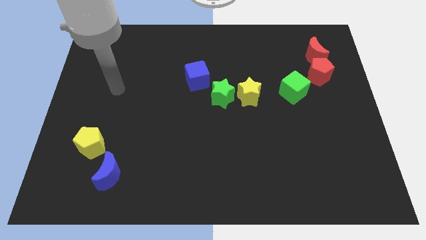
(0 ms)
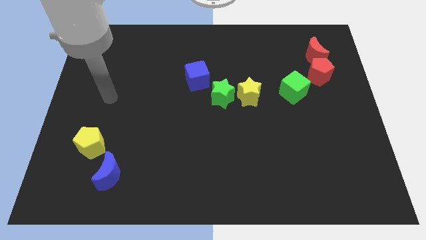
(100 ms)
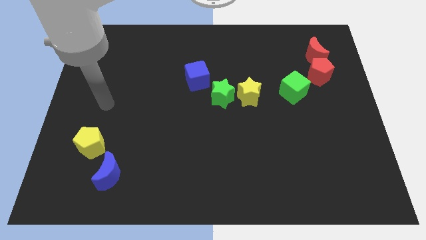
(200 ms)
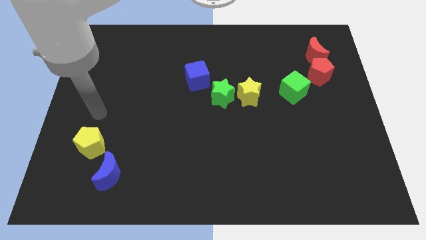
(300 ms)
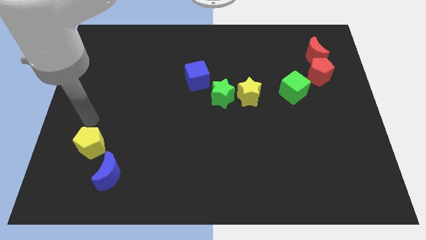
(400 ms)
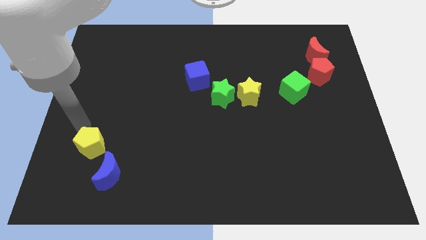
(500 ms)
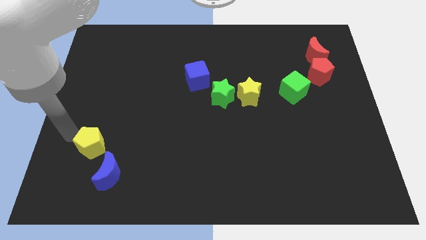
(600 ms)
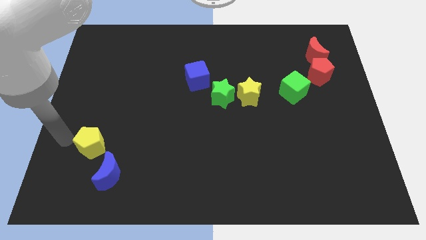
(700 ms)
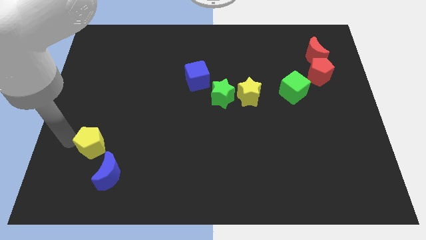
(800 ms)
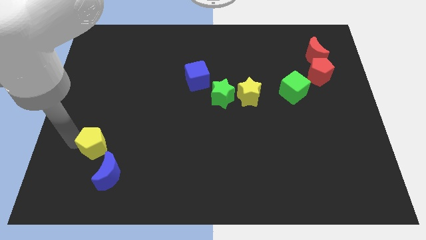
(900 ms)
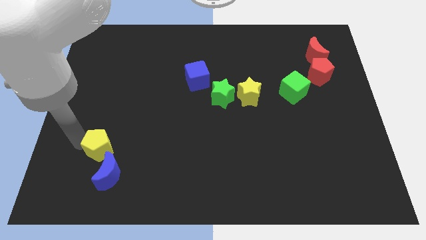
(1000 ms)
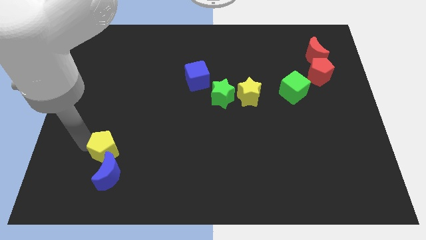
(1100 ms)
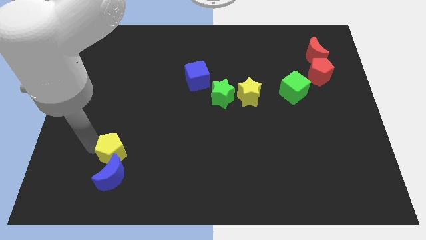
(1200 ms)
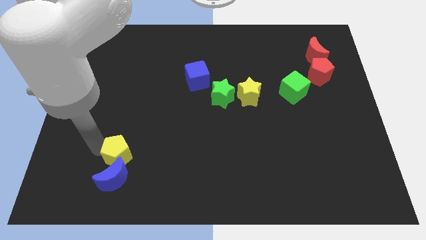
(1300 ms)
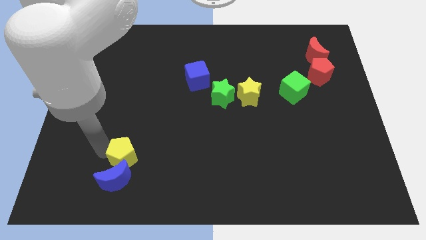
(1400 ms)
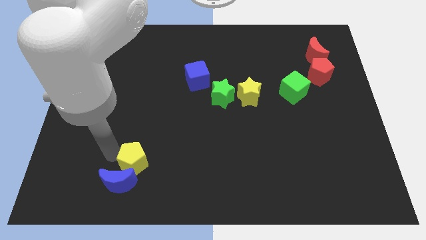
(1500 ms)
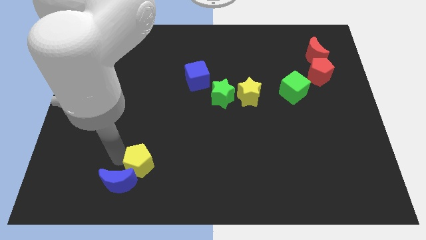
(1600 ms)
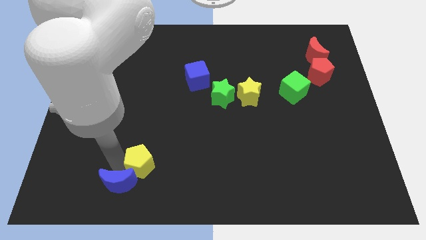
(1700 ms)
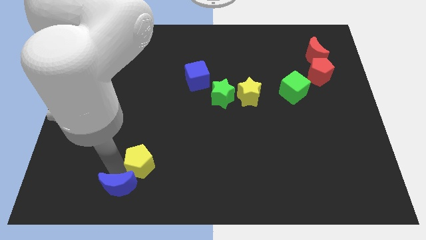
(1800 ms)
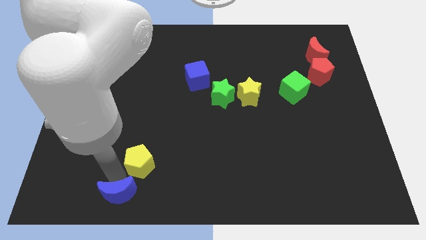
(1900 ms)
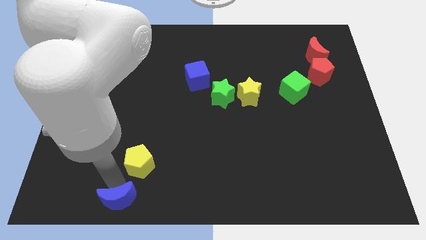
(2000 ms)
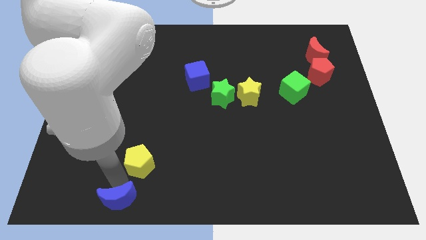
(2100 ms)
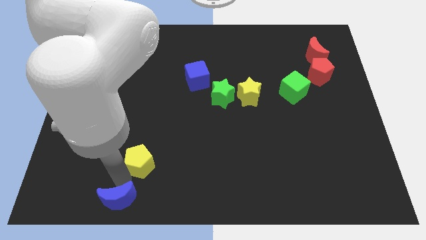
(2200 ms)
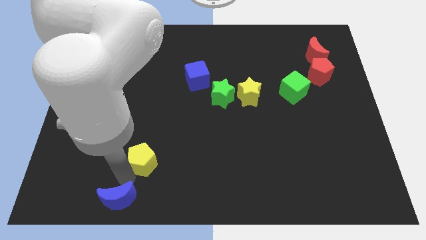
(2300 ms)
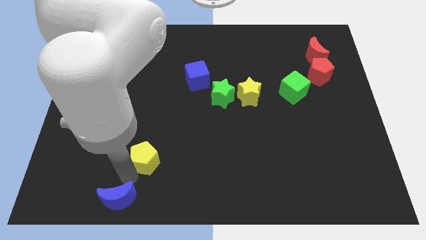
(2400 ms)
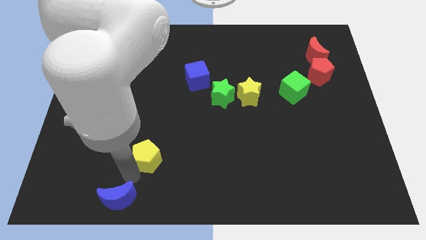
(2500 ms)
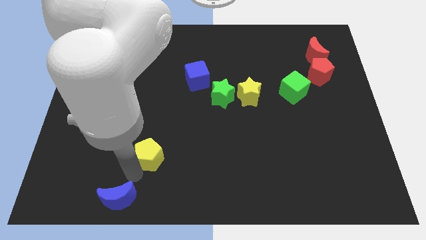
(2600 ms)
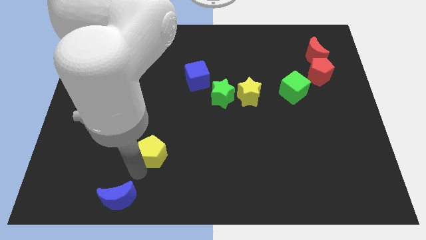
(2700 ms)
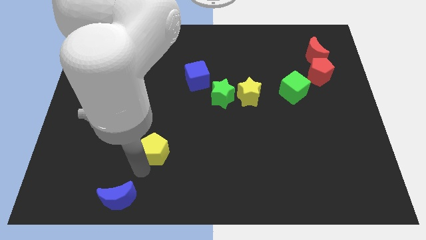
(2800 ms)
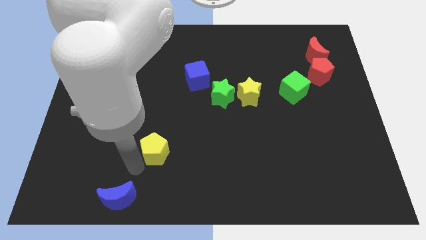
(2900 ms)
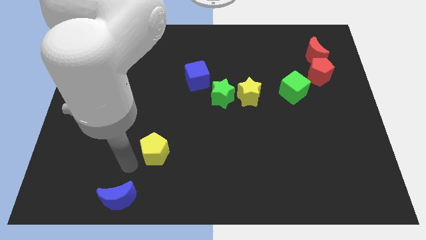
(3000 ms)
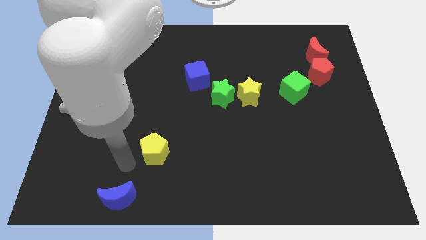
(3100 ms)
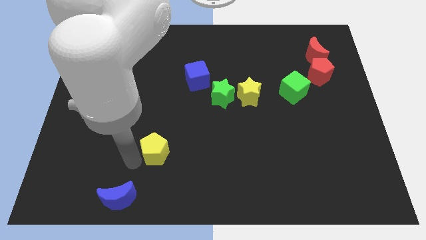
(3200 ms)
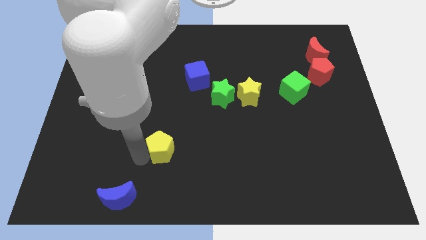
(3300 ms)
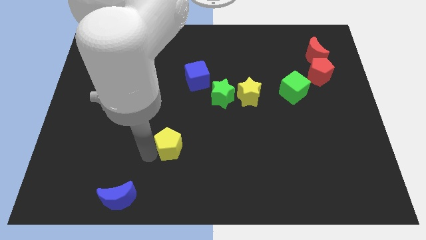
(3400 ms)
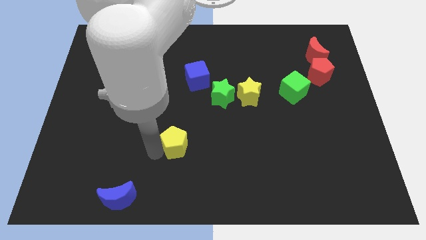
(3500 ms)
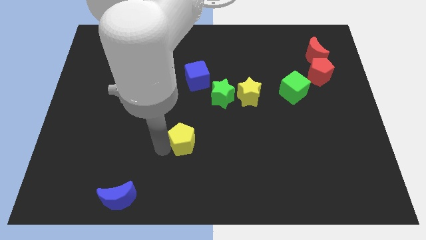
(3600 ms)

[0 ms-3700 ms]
move the yellow pentagon to the right

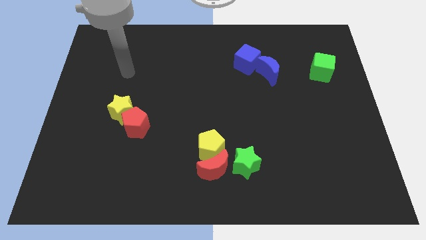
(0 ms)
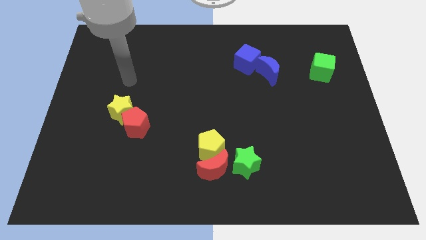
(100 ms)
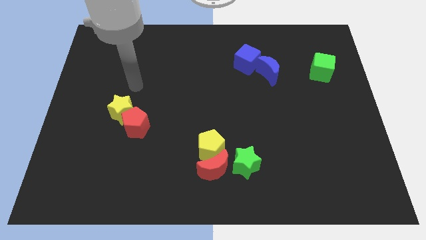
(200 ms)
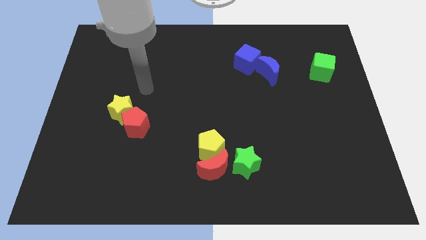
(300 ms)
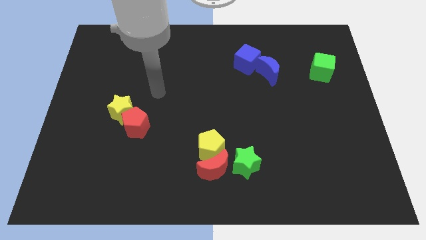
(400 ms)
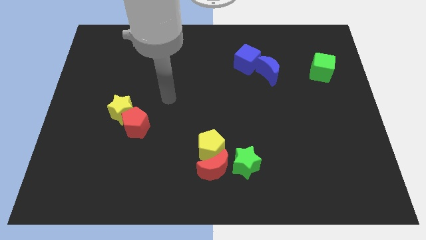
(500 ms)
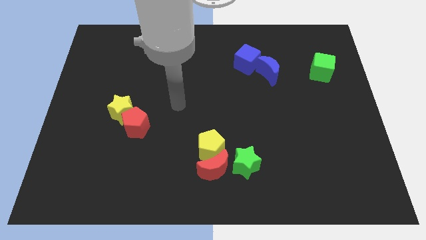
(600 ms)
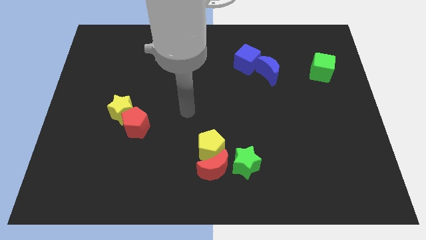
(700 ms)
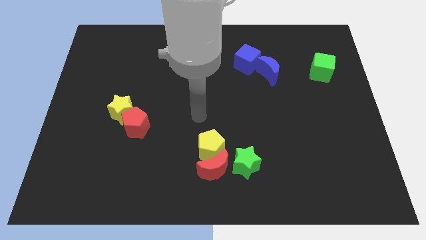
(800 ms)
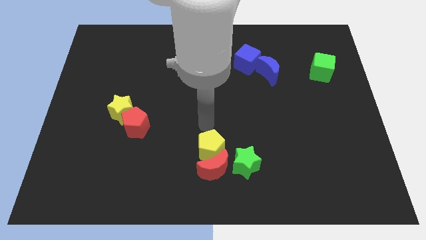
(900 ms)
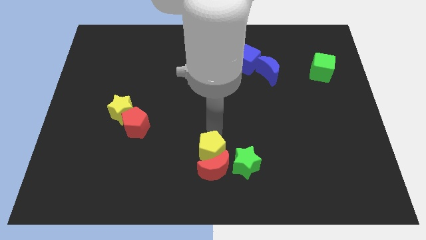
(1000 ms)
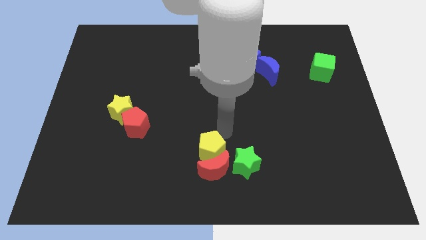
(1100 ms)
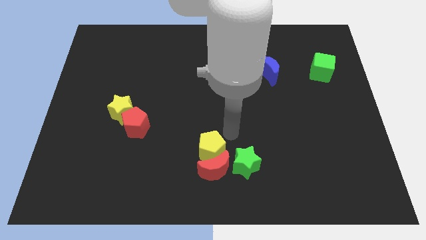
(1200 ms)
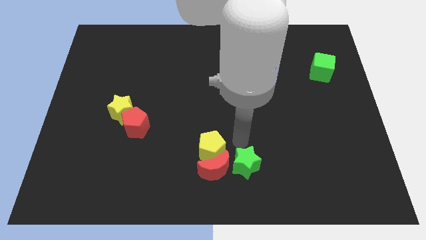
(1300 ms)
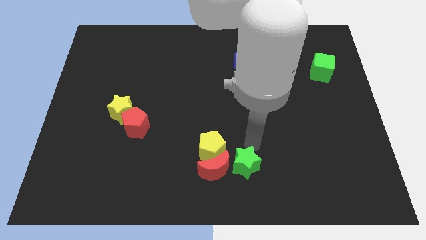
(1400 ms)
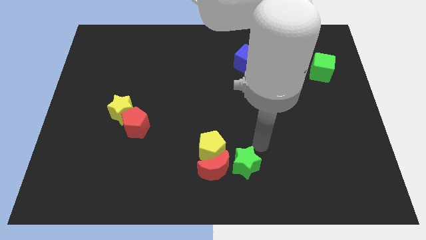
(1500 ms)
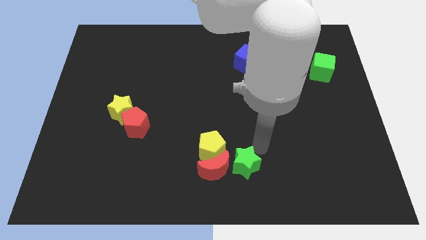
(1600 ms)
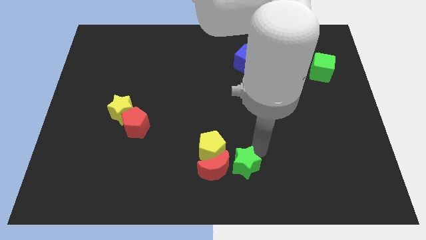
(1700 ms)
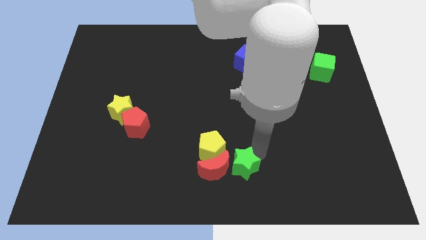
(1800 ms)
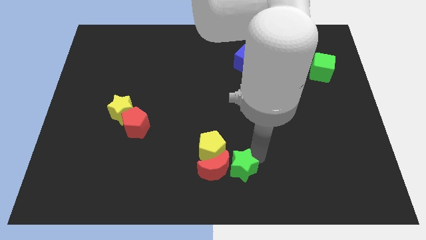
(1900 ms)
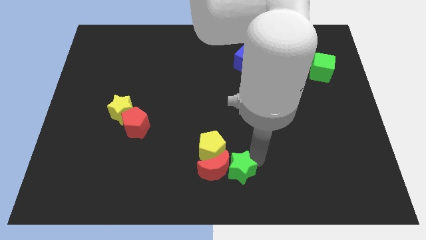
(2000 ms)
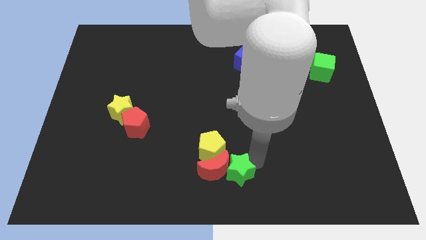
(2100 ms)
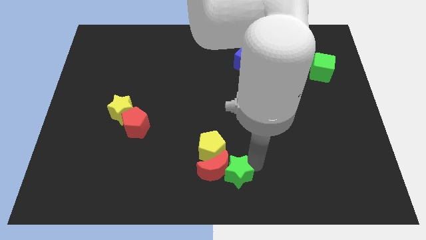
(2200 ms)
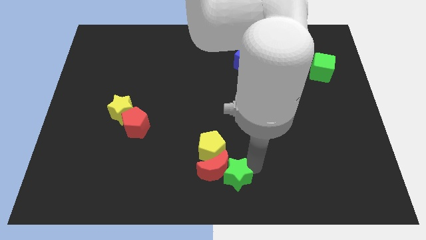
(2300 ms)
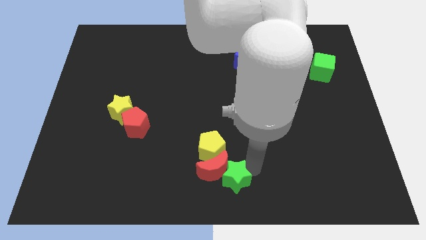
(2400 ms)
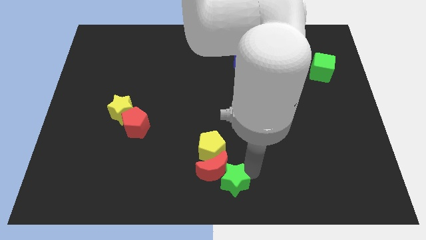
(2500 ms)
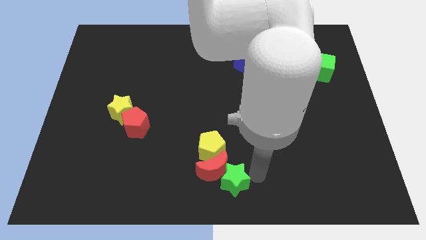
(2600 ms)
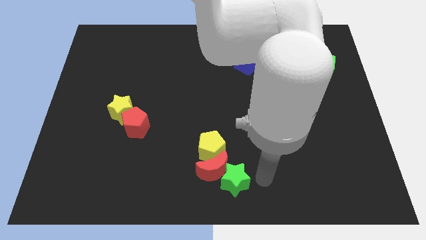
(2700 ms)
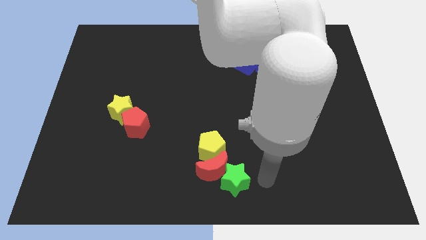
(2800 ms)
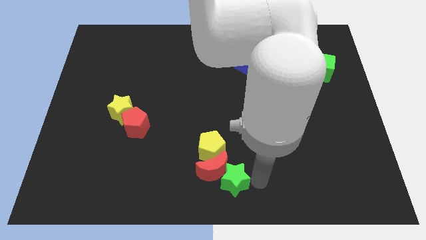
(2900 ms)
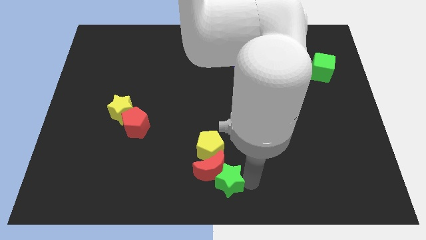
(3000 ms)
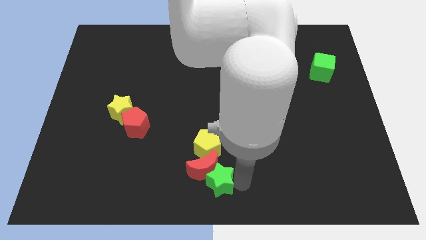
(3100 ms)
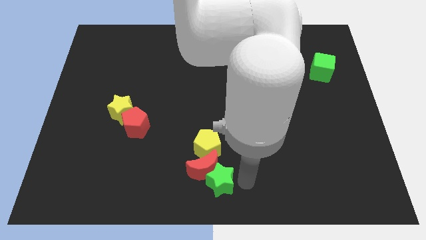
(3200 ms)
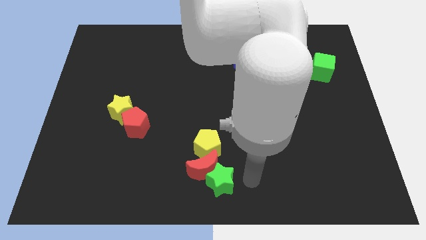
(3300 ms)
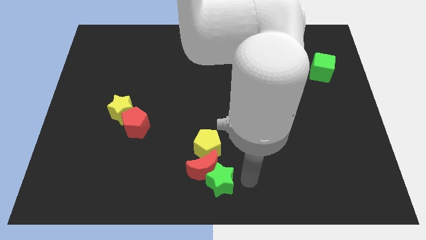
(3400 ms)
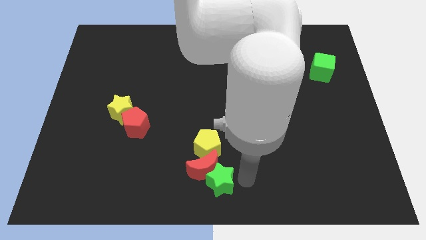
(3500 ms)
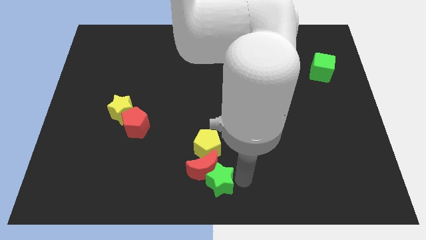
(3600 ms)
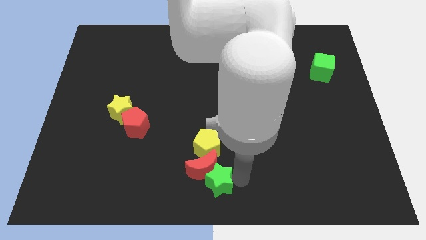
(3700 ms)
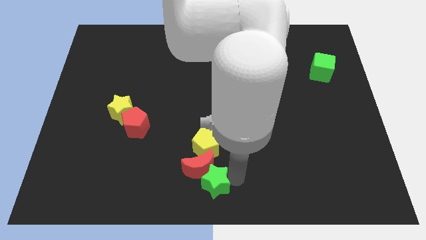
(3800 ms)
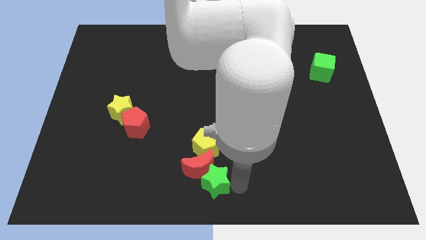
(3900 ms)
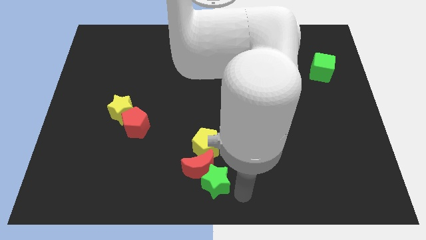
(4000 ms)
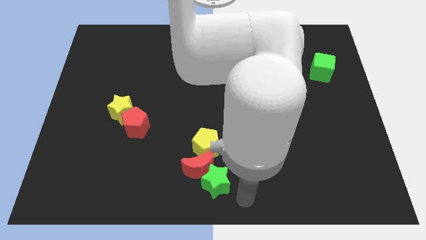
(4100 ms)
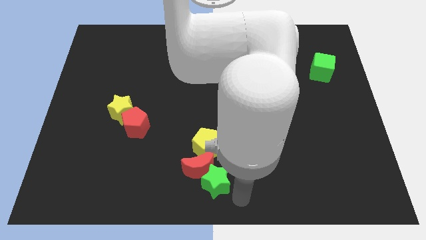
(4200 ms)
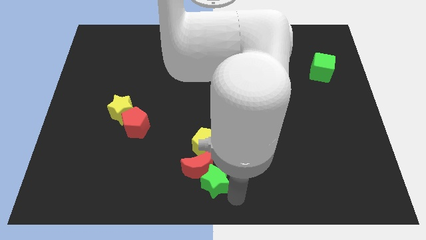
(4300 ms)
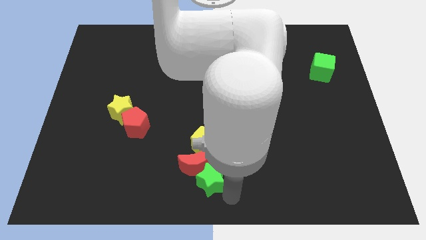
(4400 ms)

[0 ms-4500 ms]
slightly move the green star to the left
